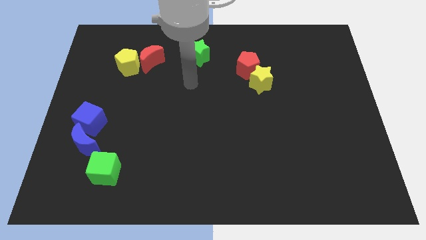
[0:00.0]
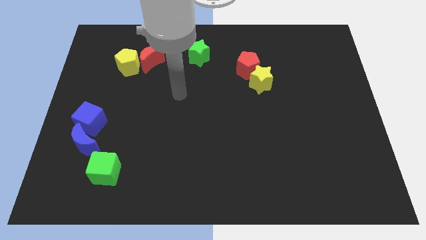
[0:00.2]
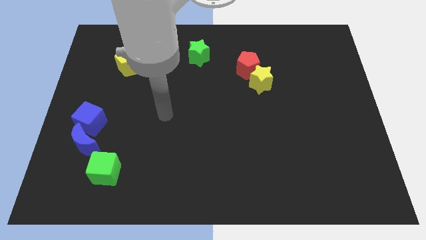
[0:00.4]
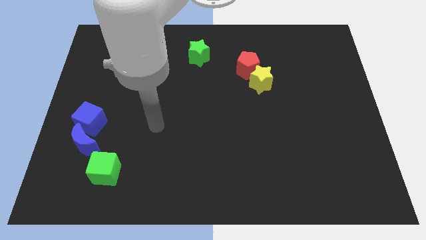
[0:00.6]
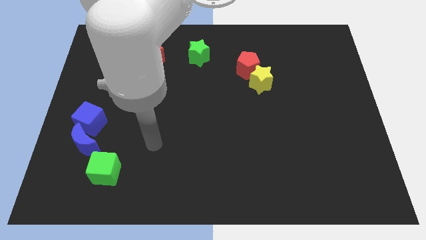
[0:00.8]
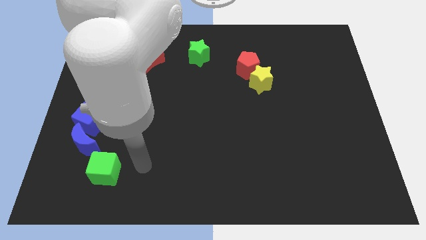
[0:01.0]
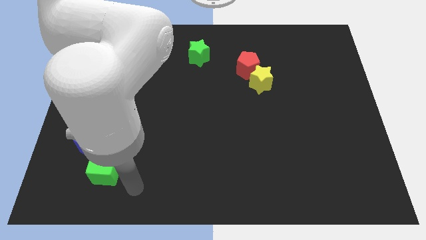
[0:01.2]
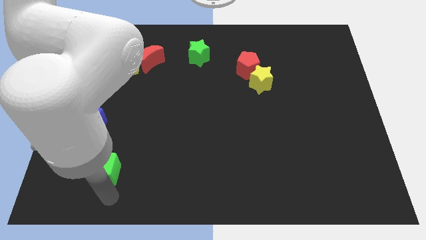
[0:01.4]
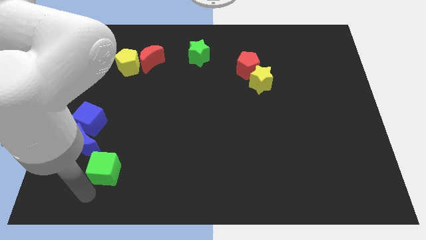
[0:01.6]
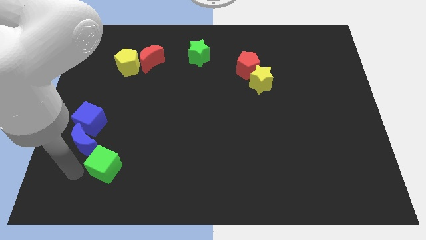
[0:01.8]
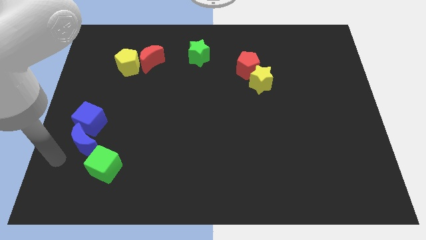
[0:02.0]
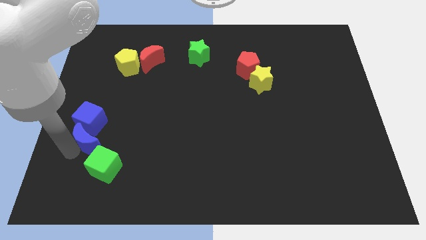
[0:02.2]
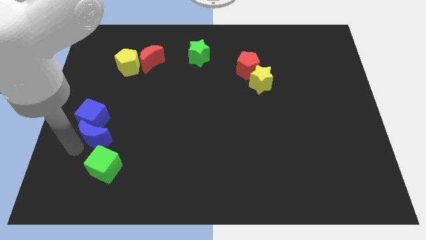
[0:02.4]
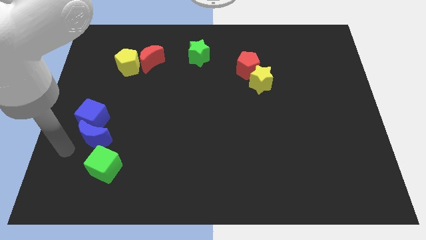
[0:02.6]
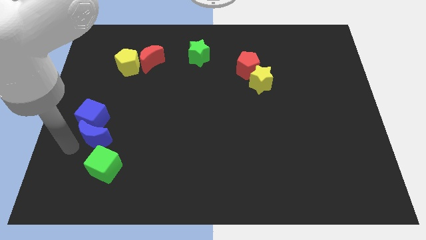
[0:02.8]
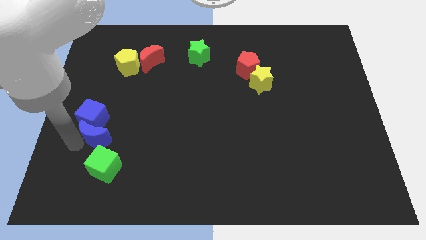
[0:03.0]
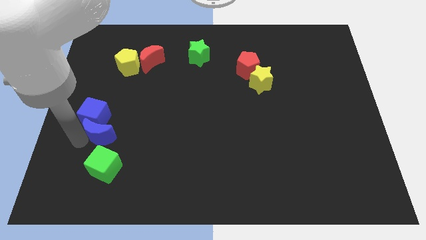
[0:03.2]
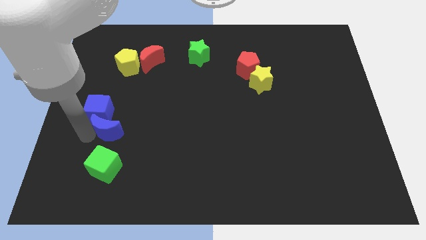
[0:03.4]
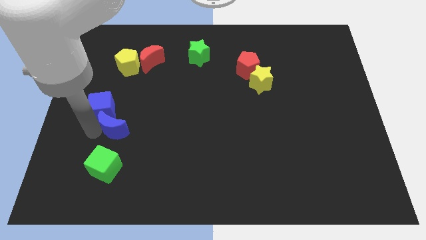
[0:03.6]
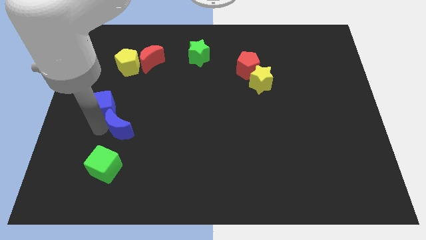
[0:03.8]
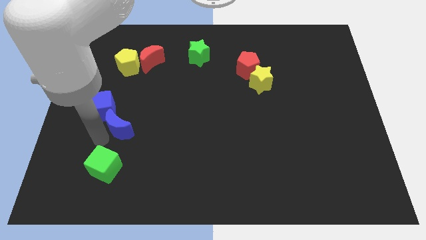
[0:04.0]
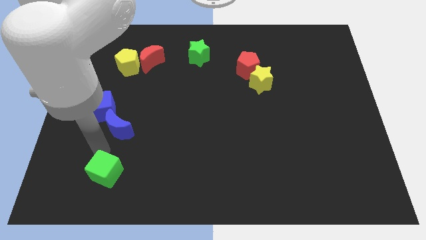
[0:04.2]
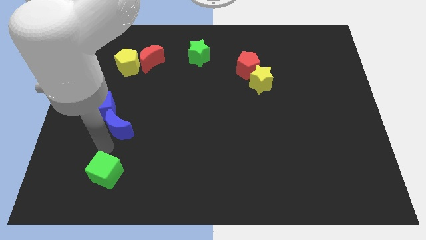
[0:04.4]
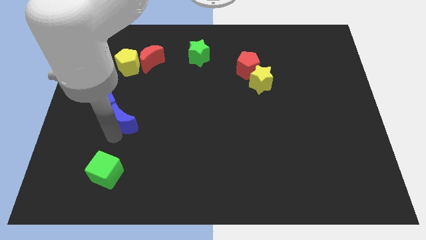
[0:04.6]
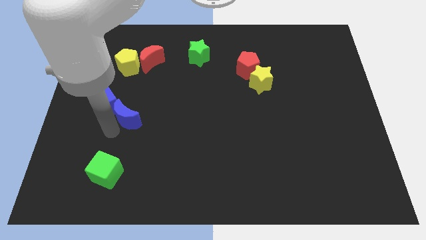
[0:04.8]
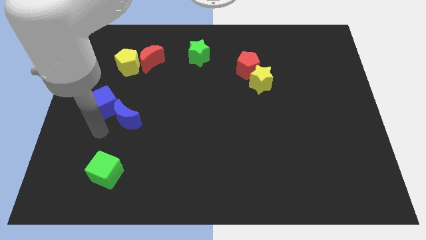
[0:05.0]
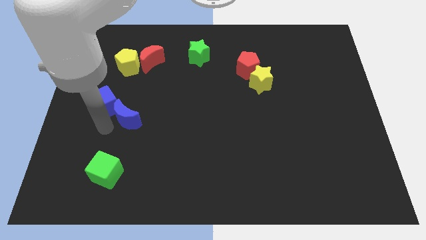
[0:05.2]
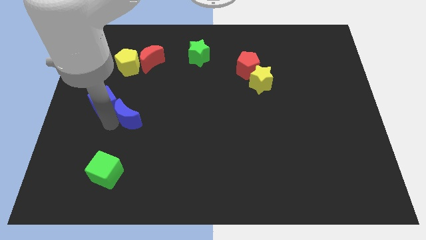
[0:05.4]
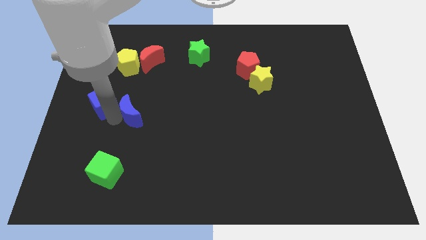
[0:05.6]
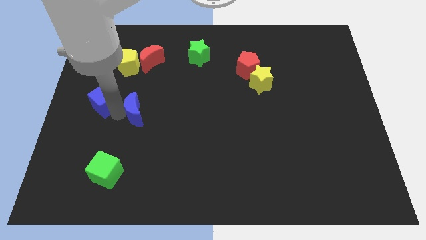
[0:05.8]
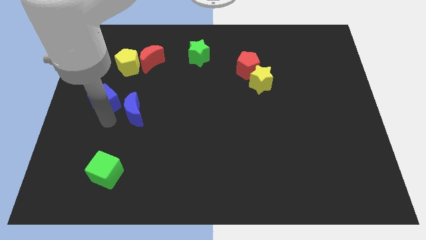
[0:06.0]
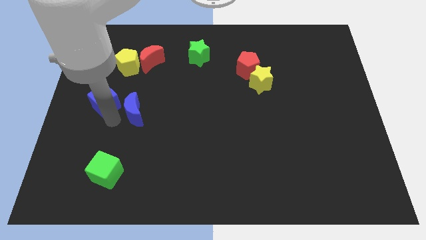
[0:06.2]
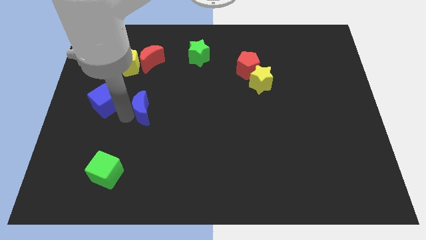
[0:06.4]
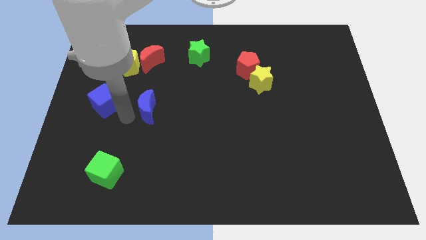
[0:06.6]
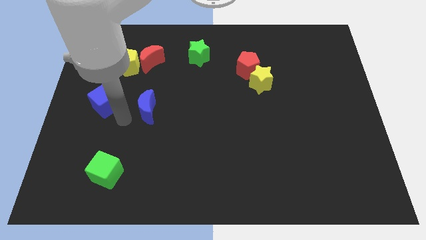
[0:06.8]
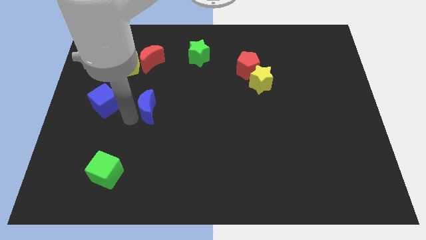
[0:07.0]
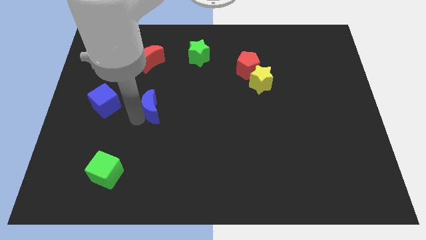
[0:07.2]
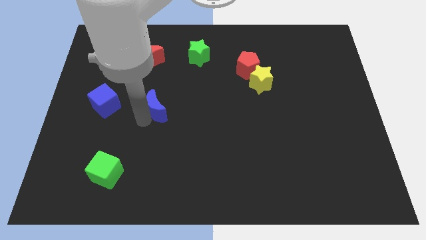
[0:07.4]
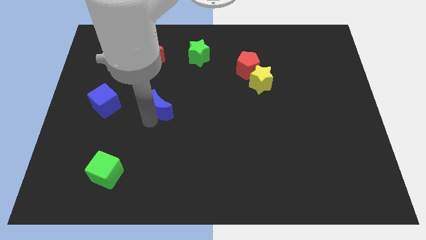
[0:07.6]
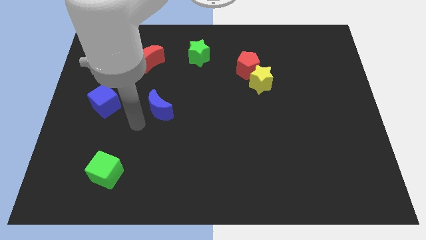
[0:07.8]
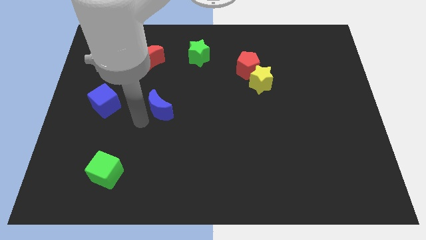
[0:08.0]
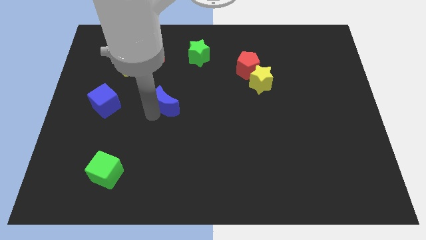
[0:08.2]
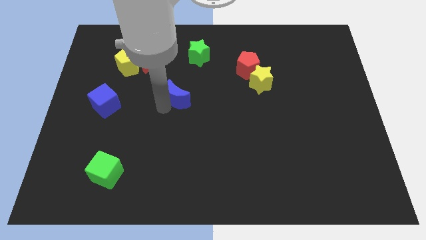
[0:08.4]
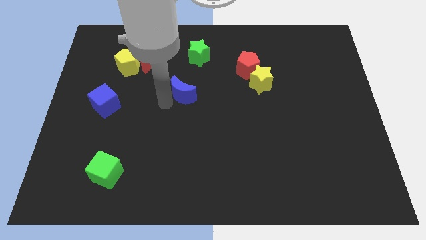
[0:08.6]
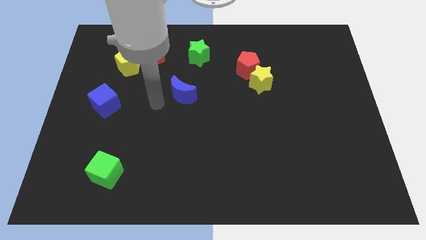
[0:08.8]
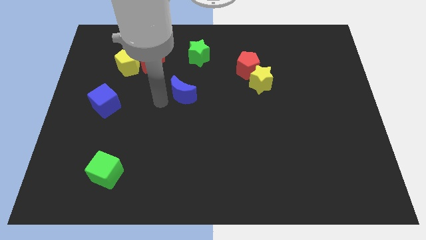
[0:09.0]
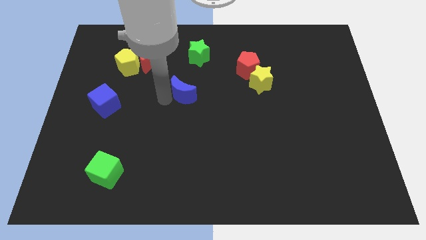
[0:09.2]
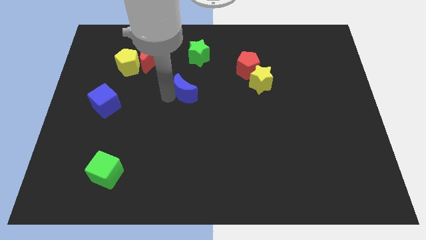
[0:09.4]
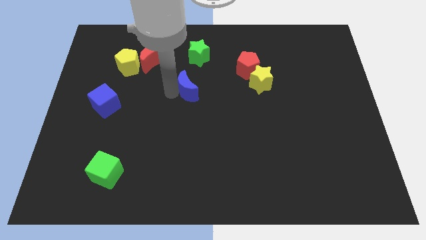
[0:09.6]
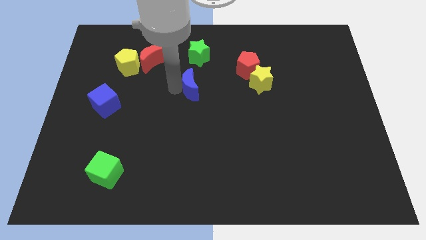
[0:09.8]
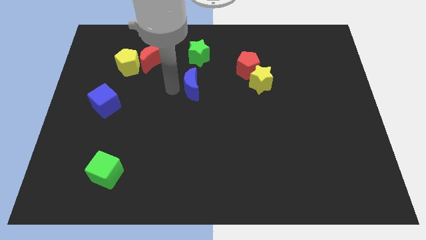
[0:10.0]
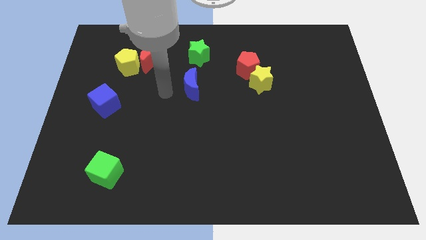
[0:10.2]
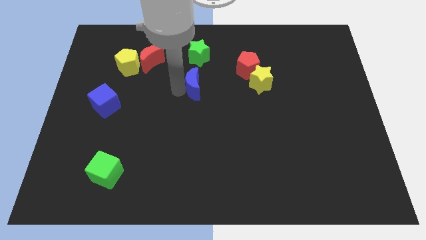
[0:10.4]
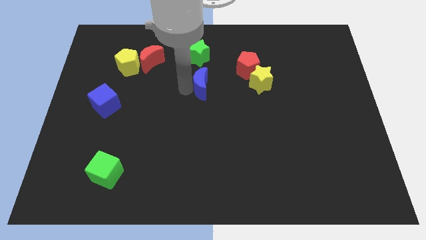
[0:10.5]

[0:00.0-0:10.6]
move the blue moon to the left side of the yellow star

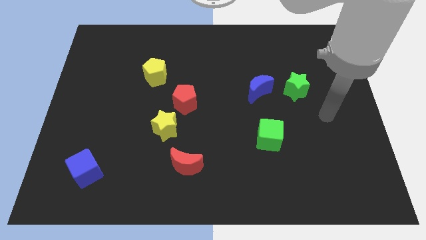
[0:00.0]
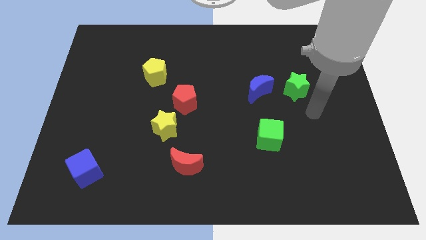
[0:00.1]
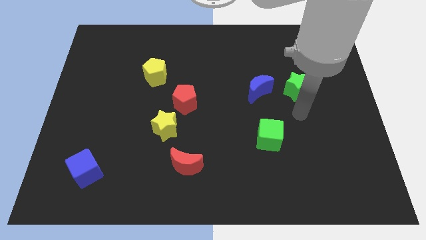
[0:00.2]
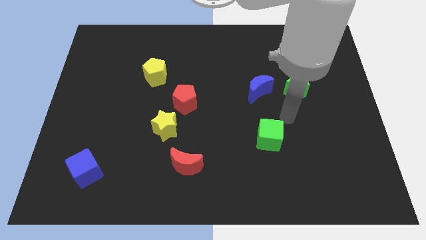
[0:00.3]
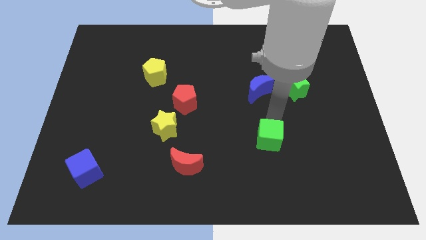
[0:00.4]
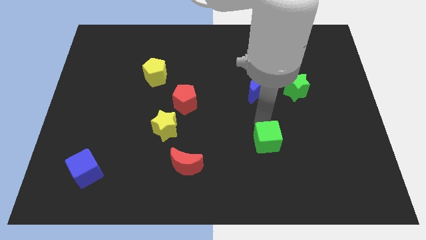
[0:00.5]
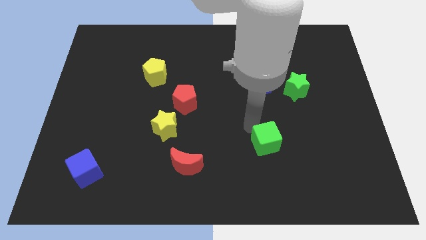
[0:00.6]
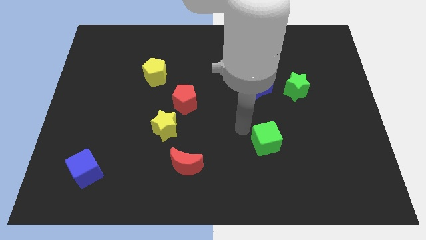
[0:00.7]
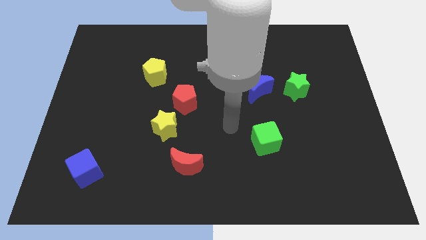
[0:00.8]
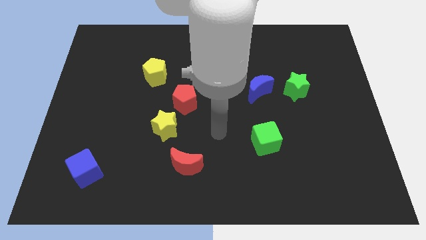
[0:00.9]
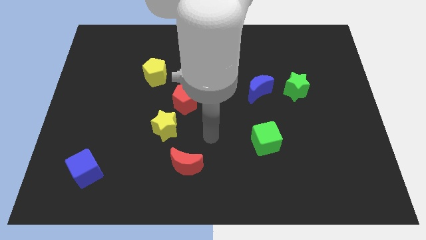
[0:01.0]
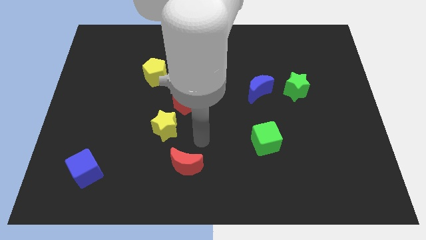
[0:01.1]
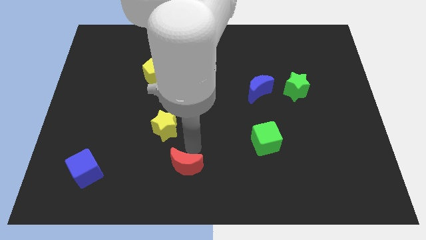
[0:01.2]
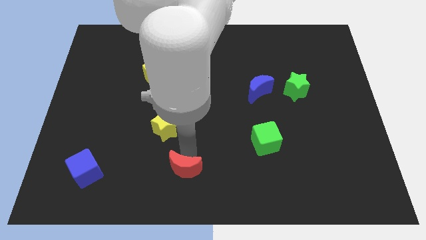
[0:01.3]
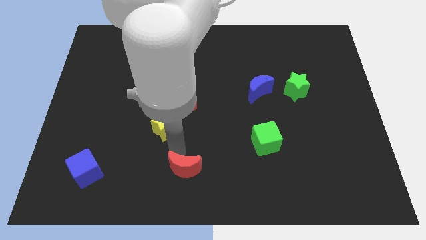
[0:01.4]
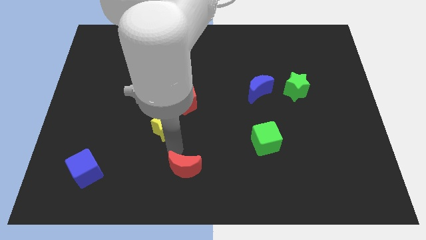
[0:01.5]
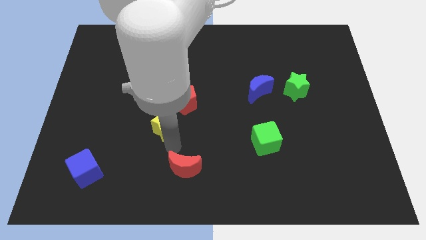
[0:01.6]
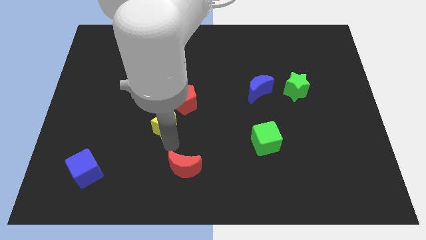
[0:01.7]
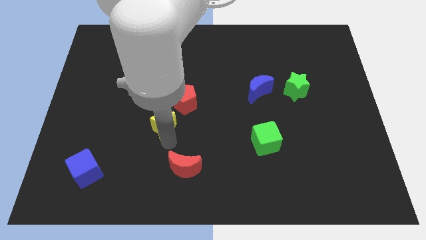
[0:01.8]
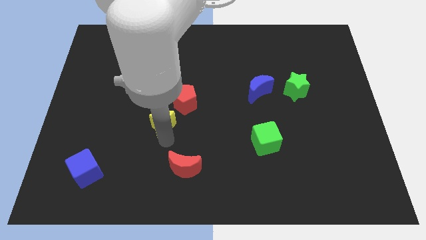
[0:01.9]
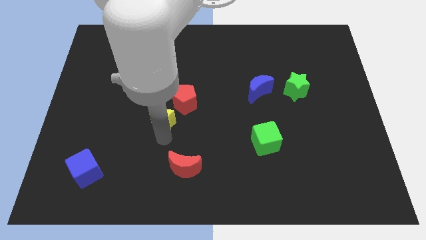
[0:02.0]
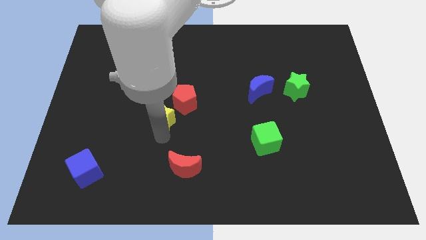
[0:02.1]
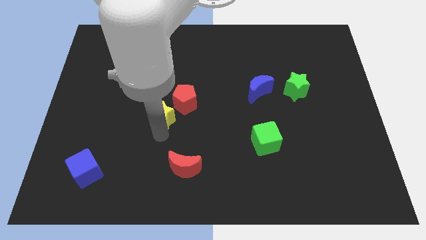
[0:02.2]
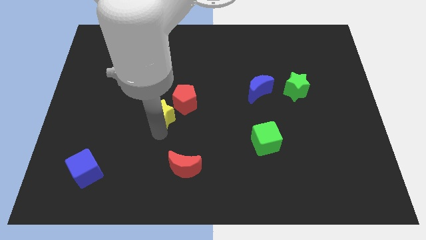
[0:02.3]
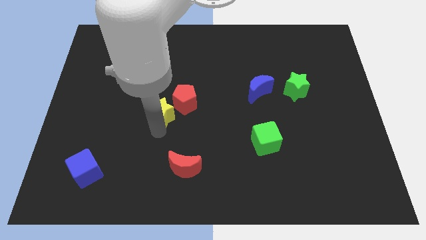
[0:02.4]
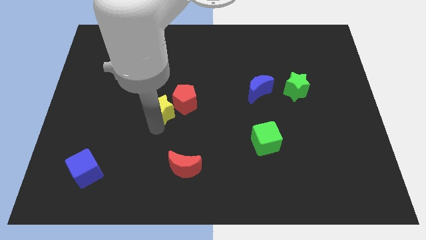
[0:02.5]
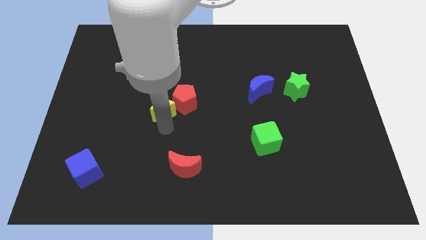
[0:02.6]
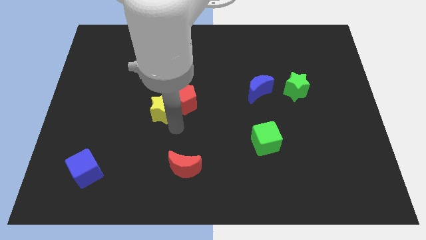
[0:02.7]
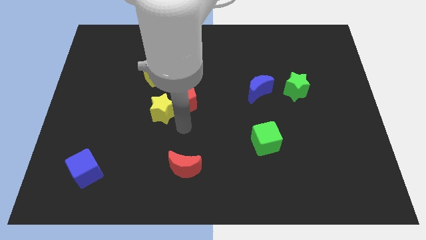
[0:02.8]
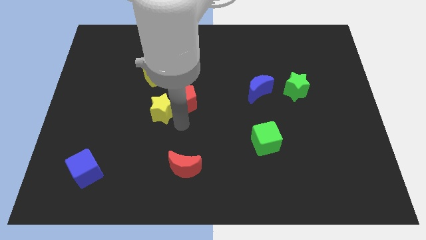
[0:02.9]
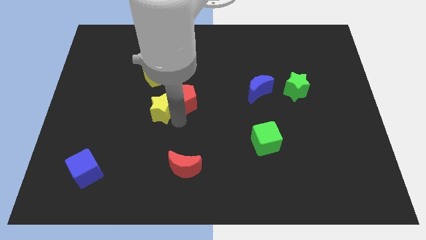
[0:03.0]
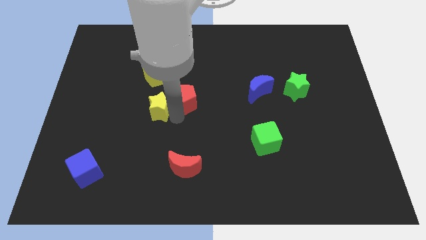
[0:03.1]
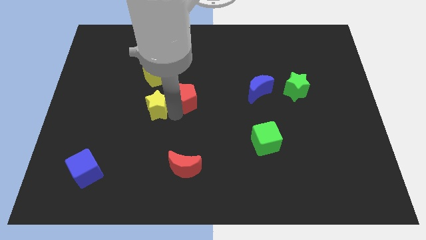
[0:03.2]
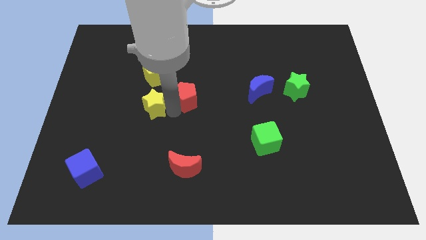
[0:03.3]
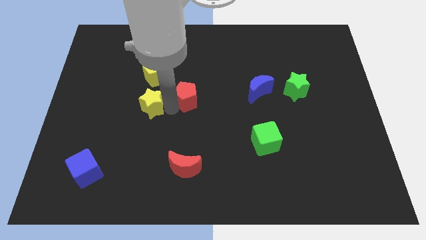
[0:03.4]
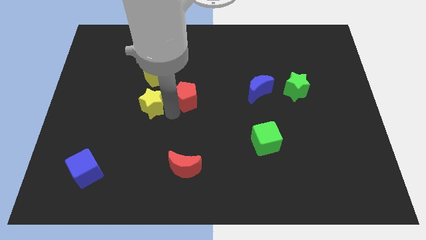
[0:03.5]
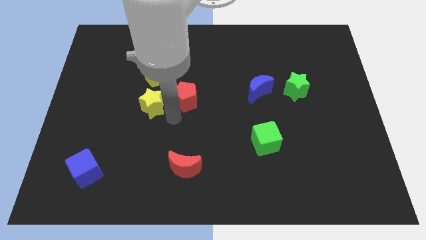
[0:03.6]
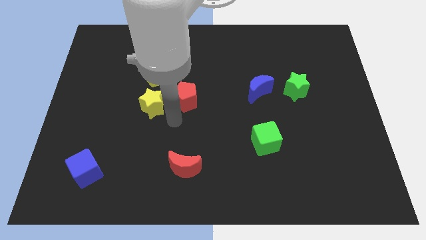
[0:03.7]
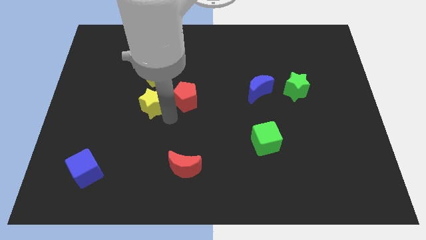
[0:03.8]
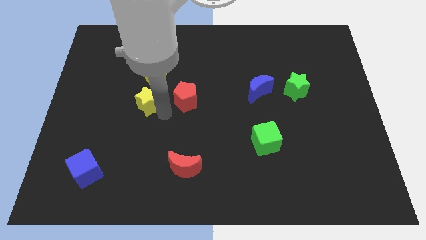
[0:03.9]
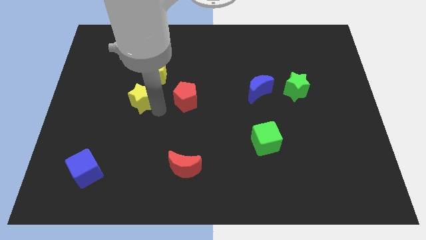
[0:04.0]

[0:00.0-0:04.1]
push the yellow star diagonally down and to the left of the yellow pentagon
